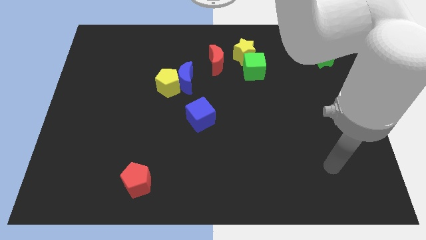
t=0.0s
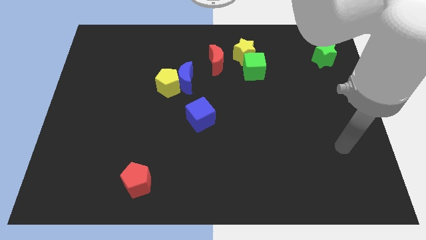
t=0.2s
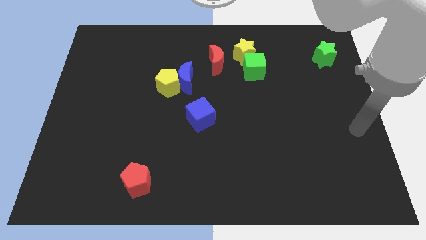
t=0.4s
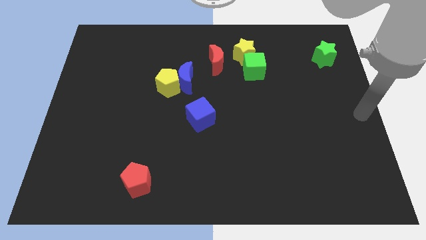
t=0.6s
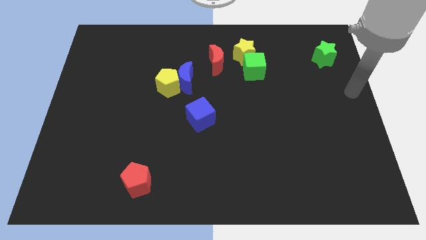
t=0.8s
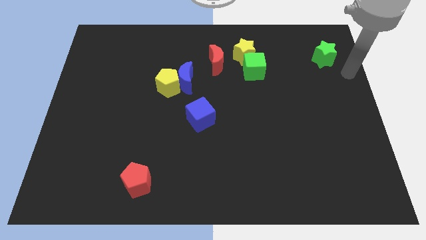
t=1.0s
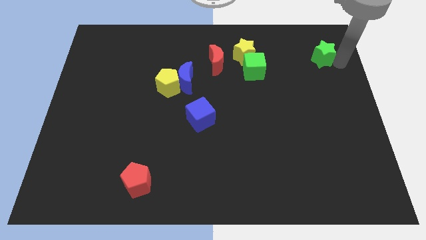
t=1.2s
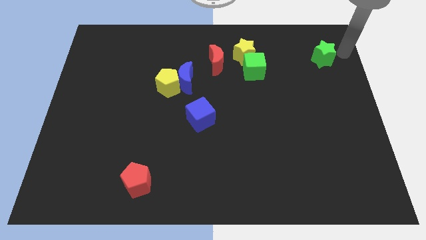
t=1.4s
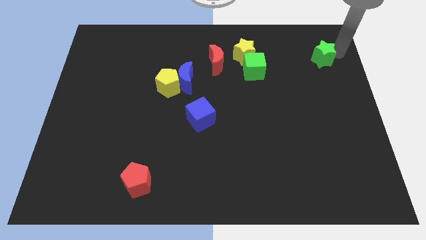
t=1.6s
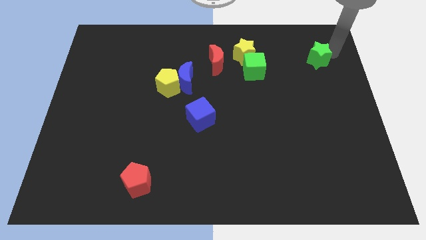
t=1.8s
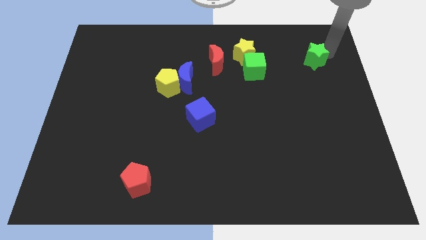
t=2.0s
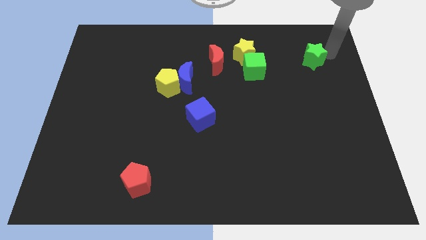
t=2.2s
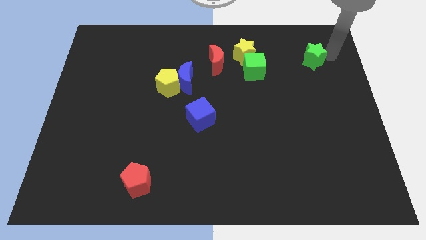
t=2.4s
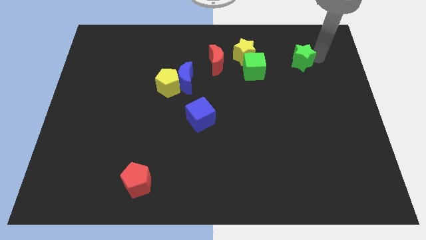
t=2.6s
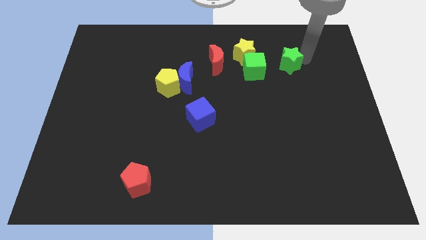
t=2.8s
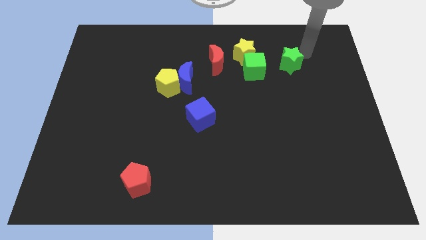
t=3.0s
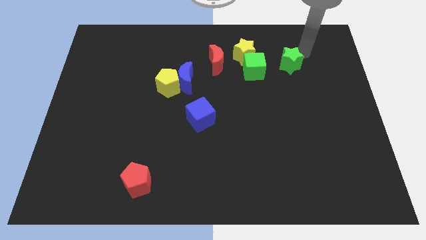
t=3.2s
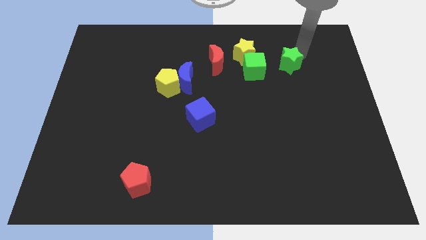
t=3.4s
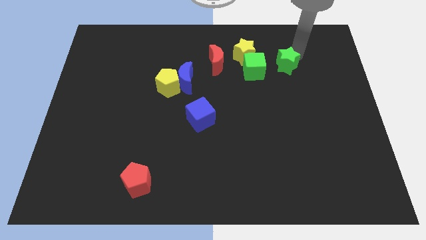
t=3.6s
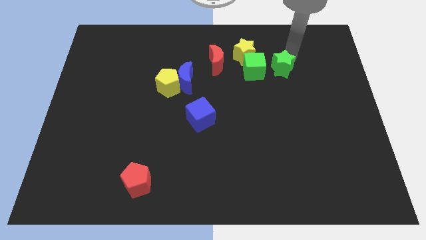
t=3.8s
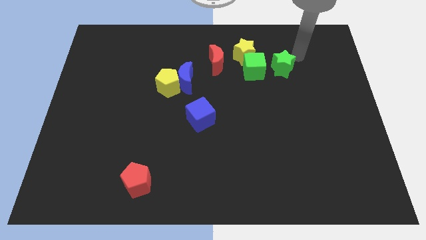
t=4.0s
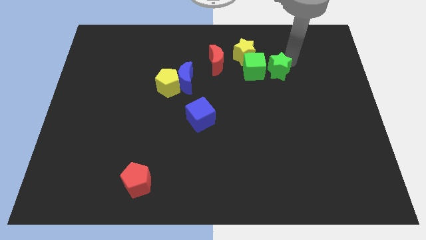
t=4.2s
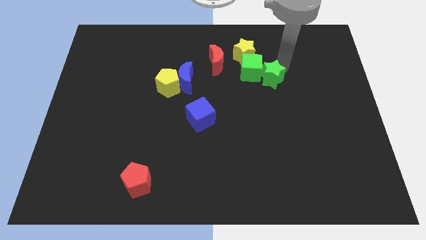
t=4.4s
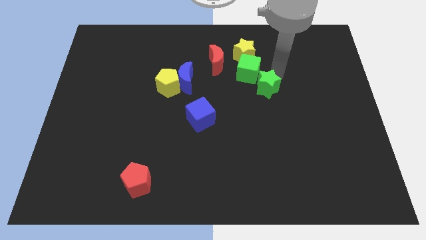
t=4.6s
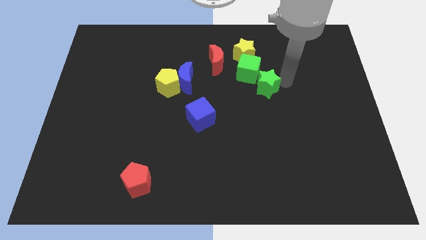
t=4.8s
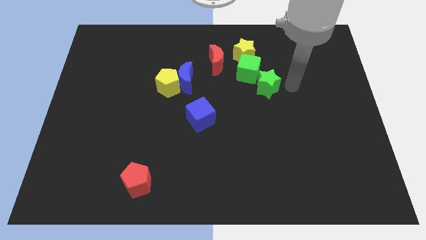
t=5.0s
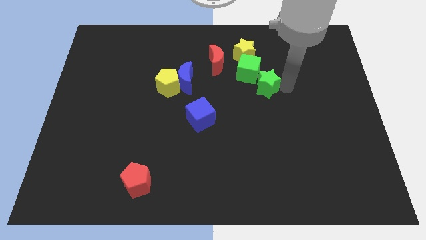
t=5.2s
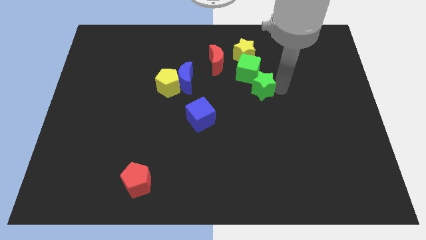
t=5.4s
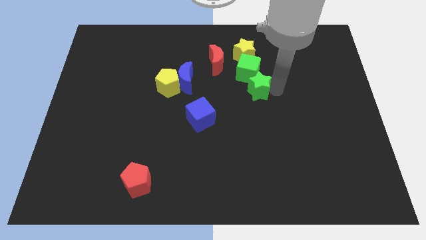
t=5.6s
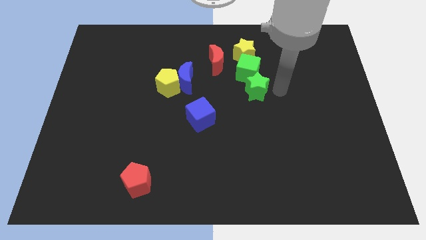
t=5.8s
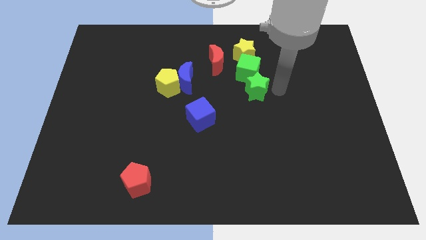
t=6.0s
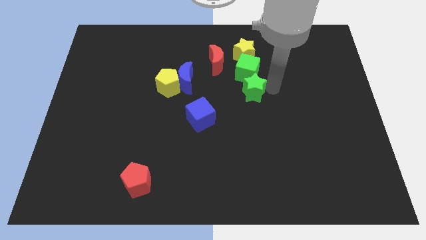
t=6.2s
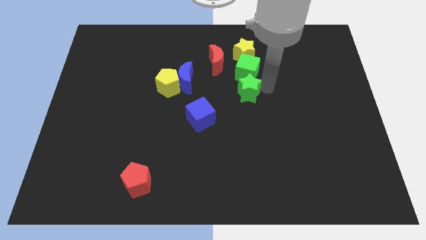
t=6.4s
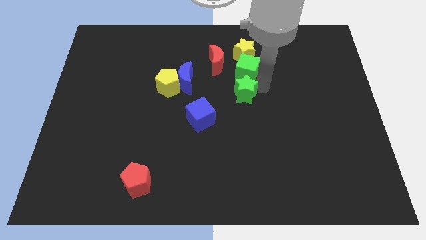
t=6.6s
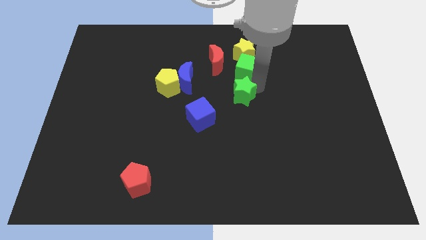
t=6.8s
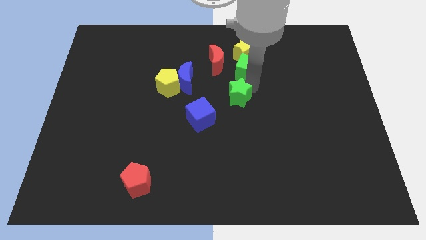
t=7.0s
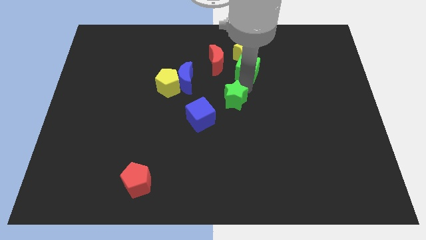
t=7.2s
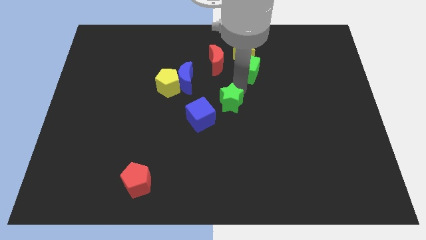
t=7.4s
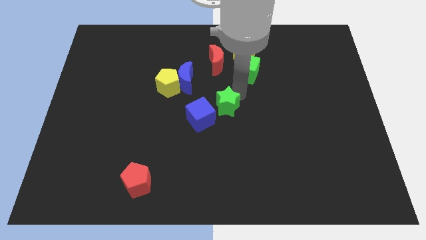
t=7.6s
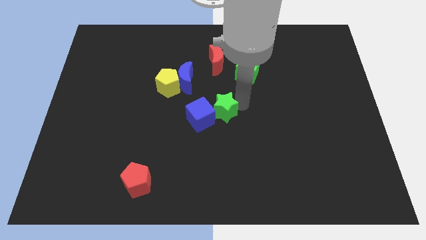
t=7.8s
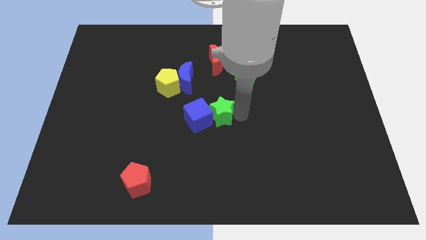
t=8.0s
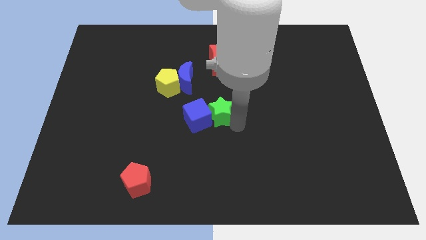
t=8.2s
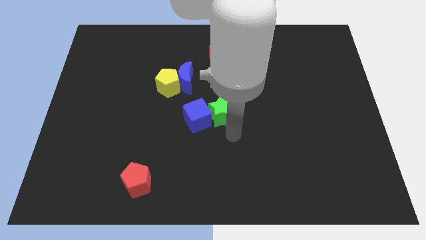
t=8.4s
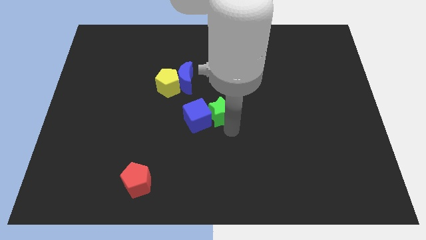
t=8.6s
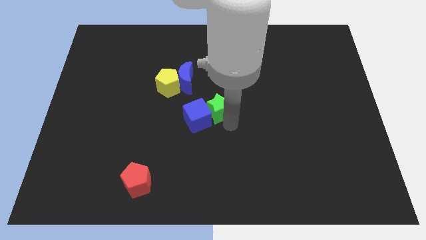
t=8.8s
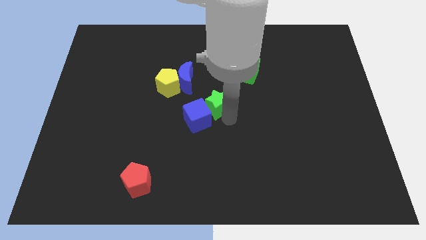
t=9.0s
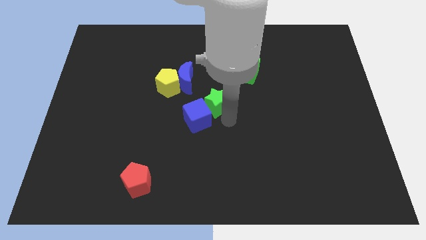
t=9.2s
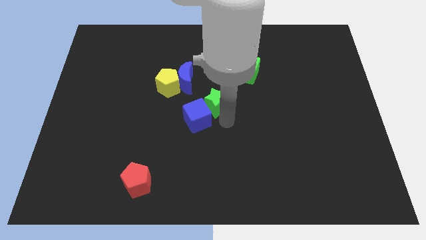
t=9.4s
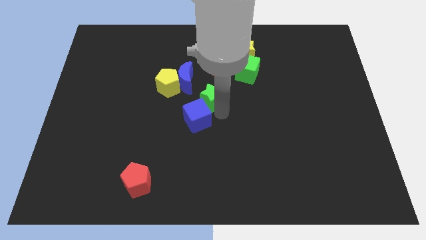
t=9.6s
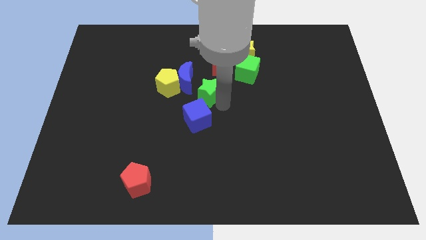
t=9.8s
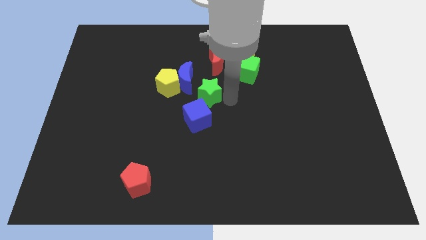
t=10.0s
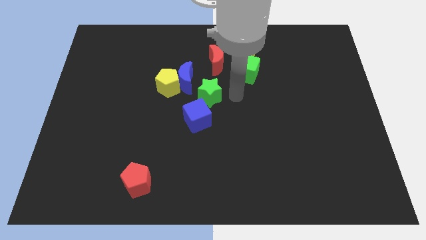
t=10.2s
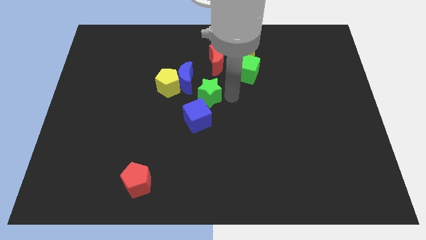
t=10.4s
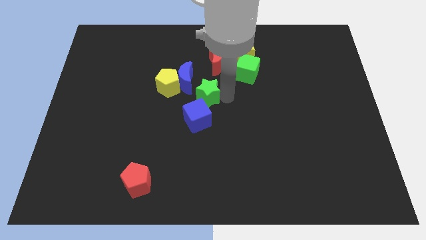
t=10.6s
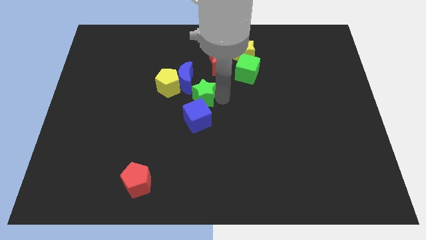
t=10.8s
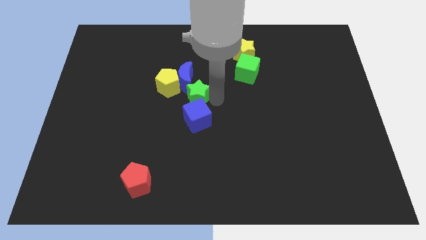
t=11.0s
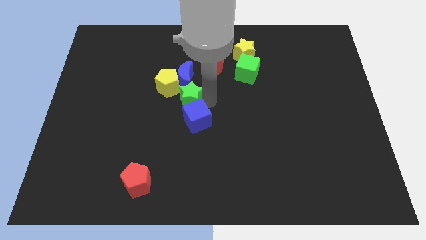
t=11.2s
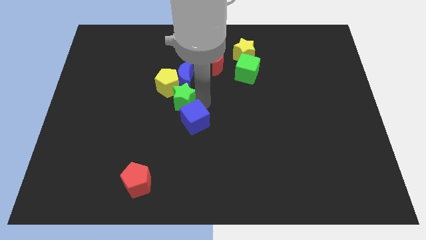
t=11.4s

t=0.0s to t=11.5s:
push the green star towards the yellow pentagon

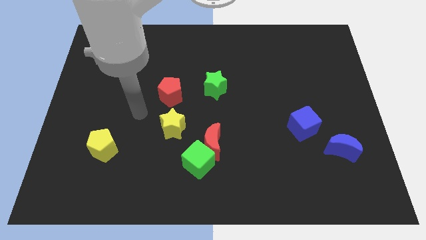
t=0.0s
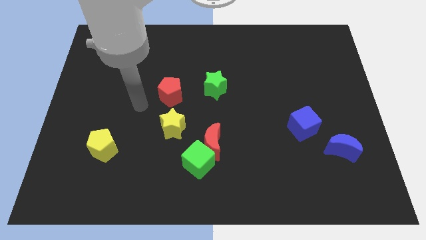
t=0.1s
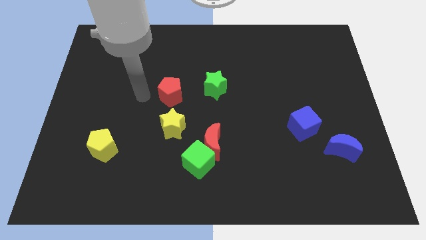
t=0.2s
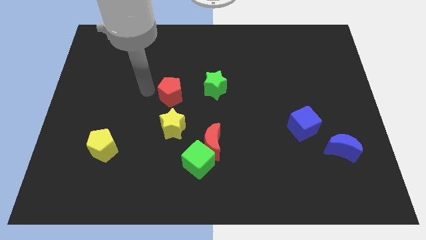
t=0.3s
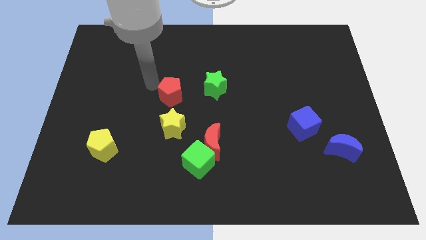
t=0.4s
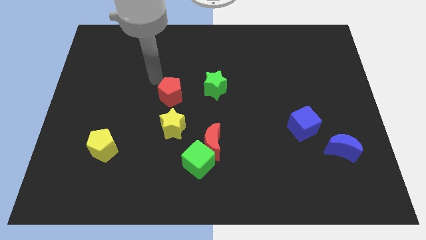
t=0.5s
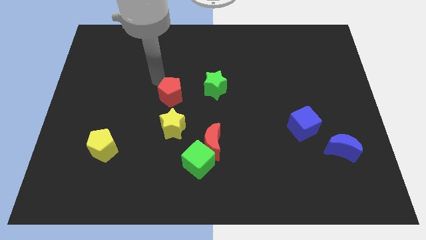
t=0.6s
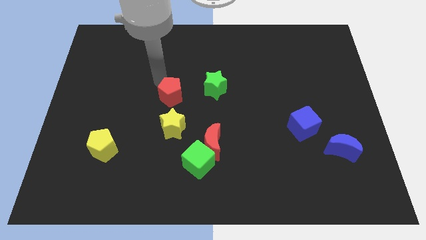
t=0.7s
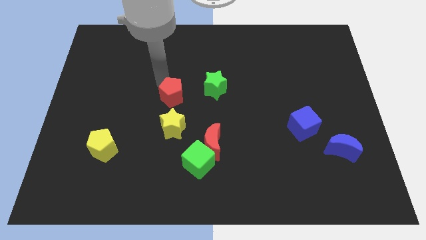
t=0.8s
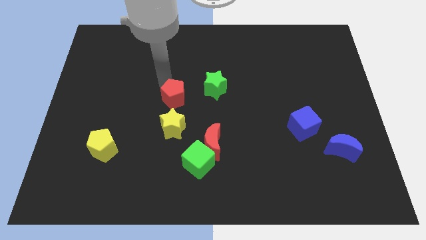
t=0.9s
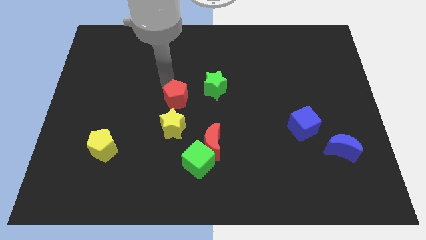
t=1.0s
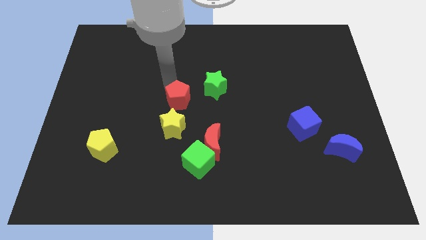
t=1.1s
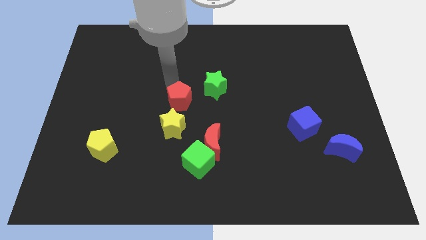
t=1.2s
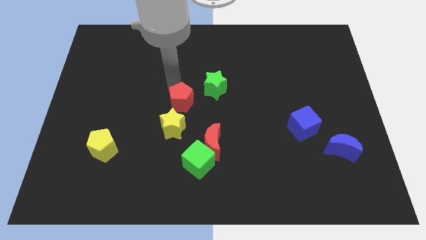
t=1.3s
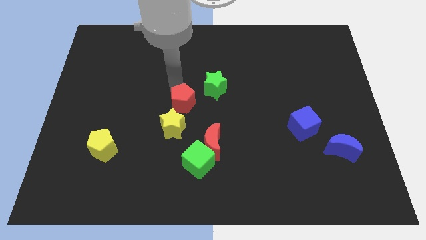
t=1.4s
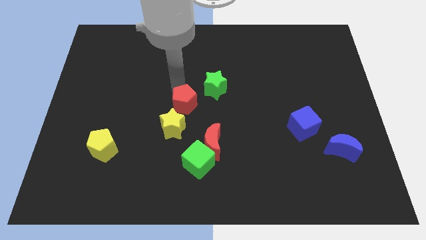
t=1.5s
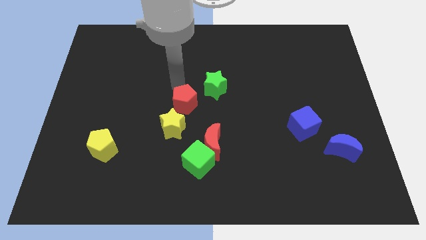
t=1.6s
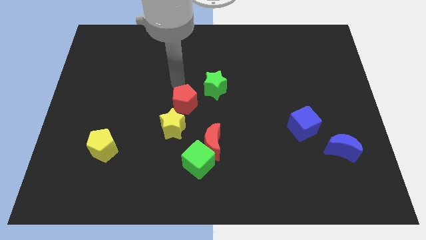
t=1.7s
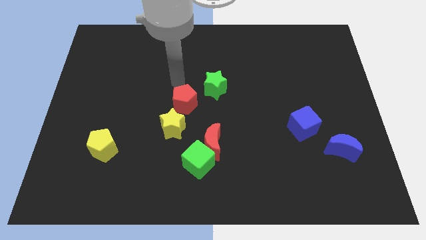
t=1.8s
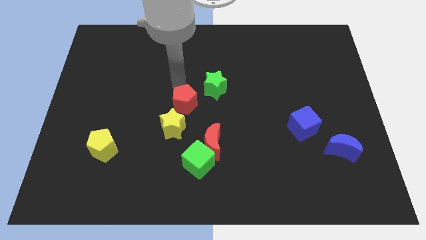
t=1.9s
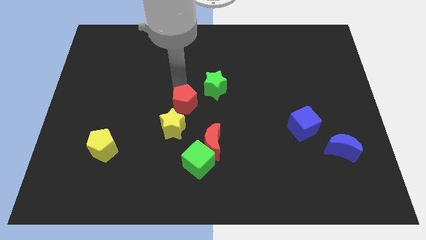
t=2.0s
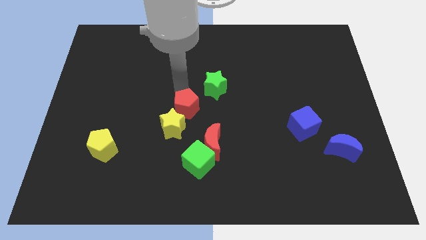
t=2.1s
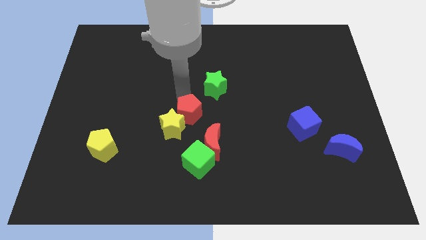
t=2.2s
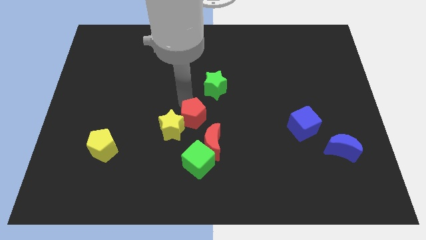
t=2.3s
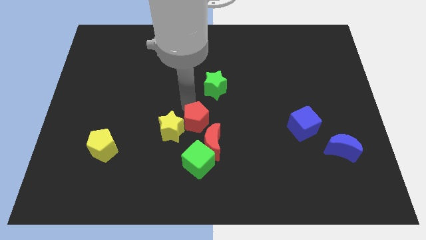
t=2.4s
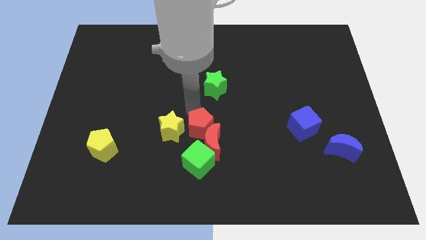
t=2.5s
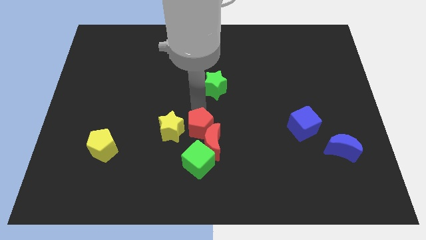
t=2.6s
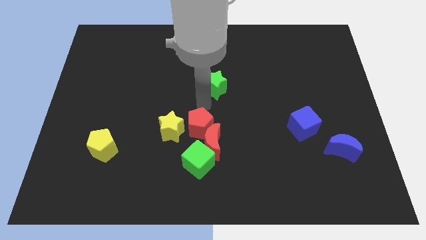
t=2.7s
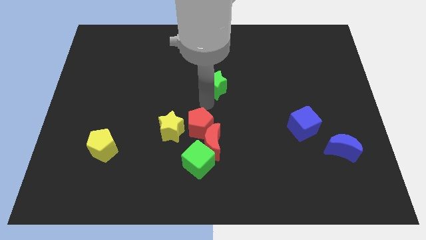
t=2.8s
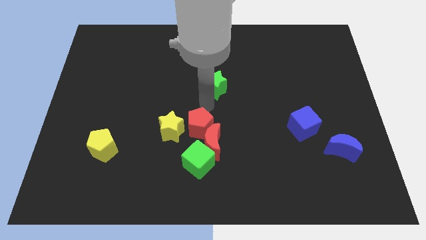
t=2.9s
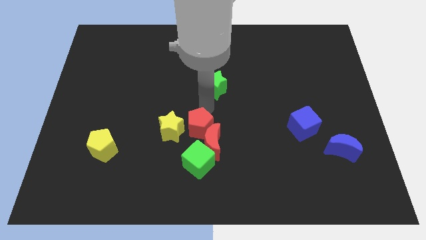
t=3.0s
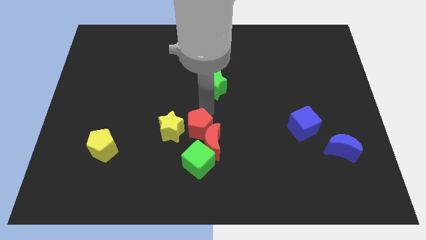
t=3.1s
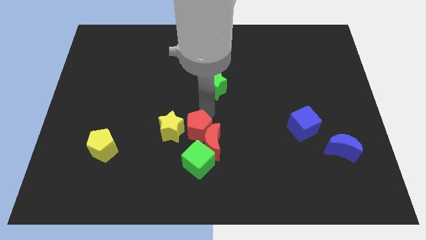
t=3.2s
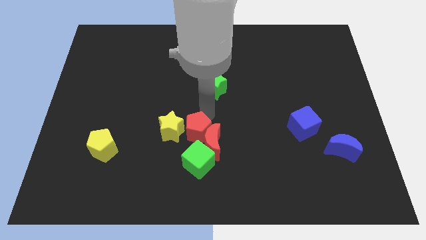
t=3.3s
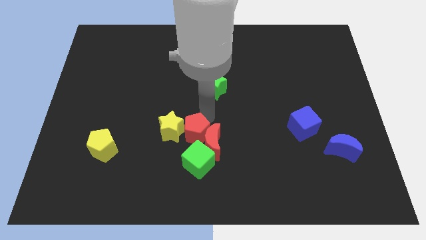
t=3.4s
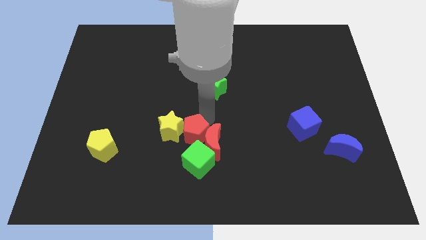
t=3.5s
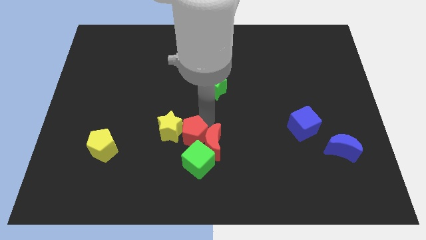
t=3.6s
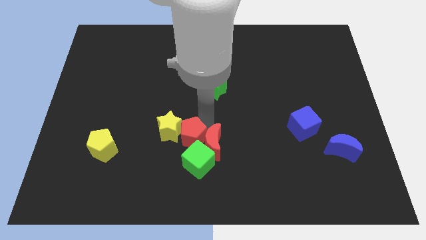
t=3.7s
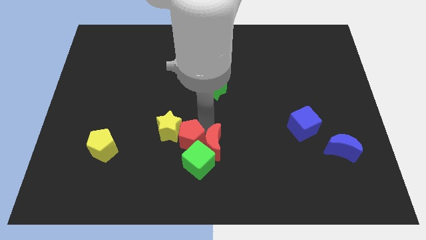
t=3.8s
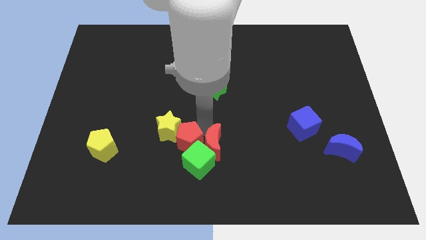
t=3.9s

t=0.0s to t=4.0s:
put the red pentagon close to the green cube
